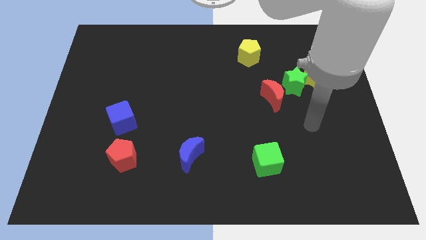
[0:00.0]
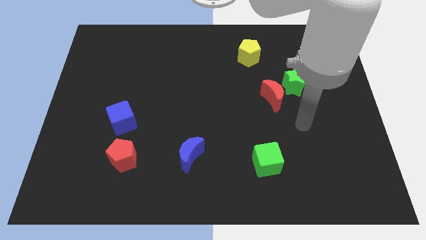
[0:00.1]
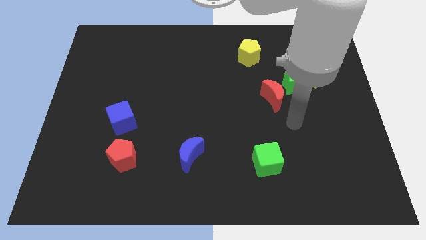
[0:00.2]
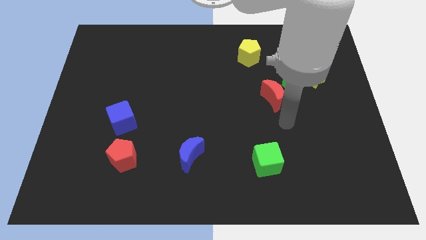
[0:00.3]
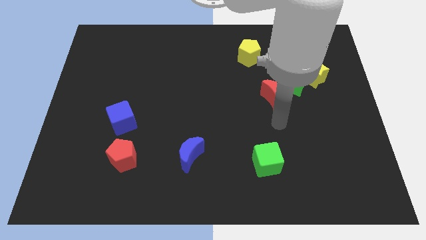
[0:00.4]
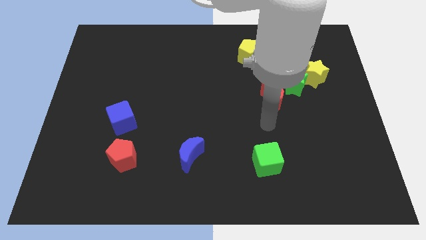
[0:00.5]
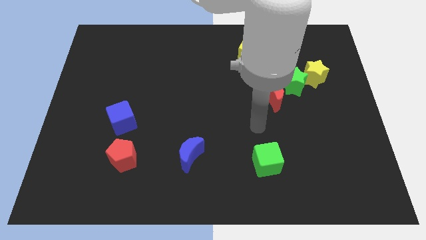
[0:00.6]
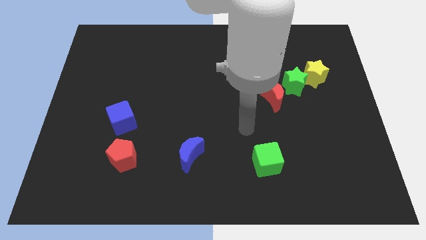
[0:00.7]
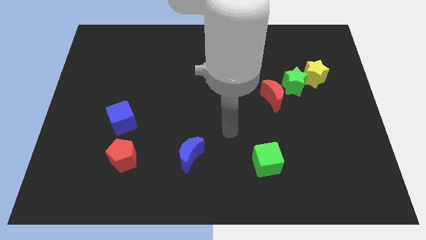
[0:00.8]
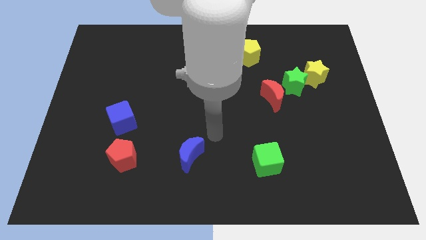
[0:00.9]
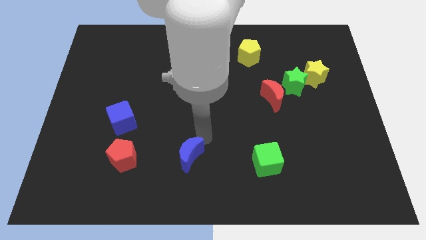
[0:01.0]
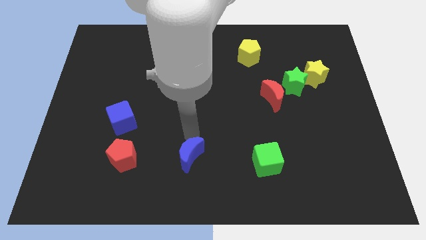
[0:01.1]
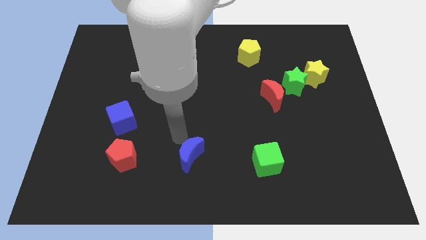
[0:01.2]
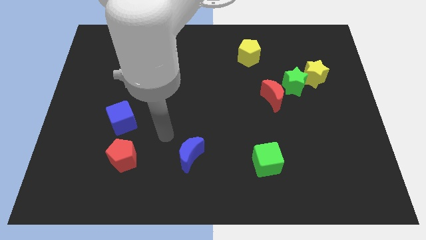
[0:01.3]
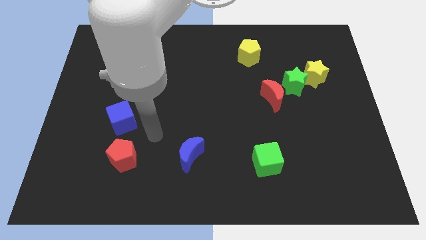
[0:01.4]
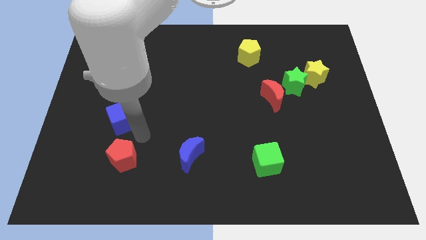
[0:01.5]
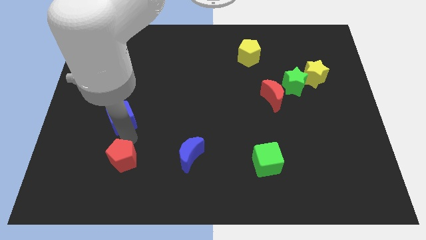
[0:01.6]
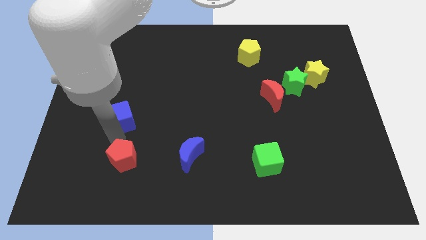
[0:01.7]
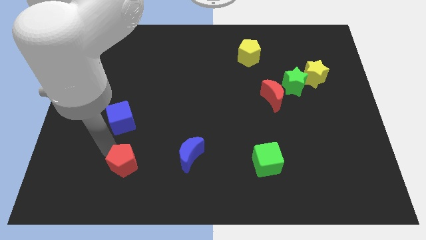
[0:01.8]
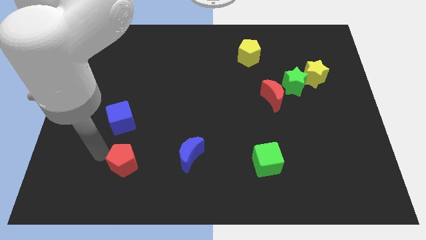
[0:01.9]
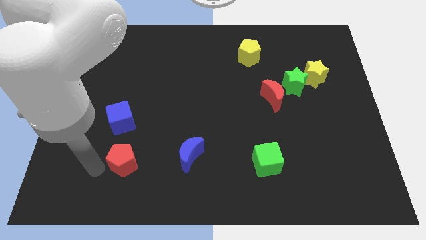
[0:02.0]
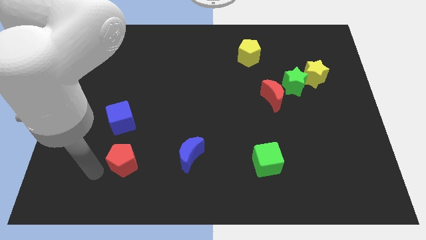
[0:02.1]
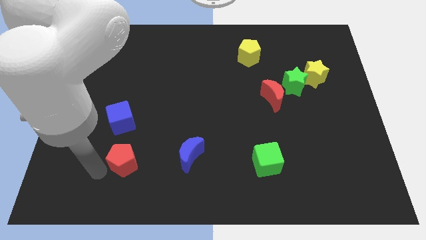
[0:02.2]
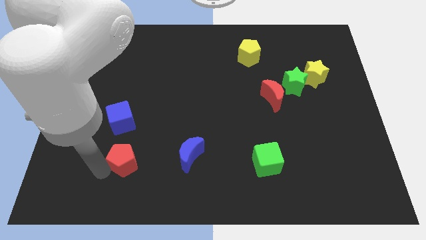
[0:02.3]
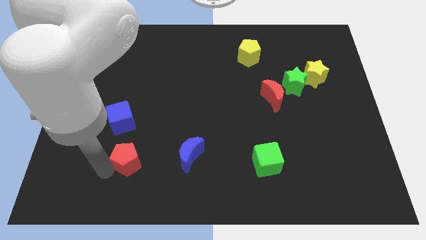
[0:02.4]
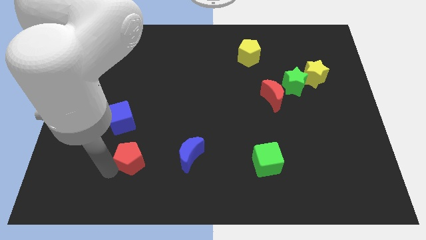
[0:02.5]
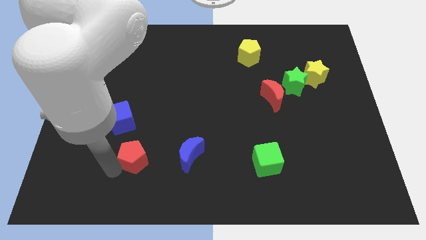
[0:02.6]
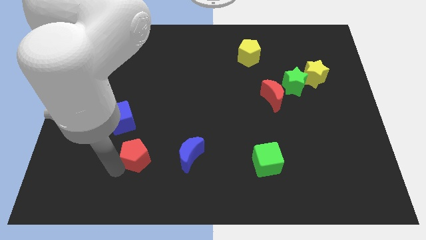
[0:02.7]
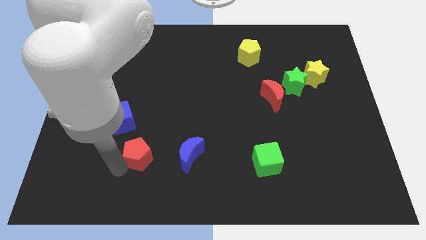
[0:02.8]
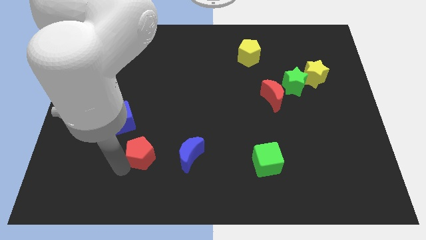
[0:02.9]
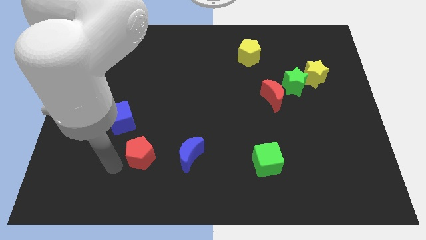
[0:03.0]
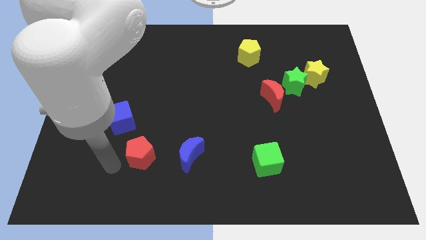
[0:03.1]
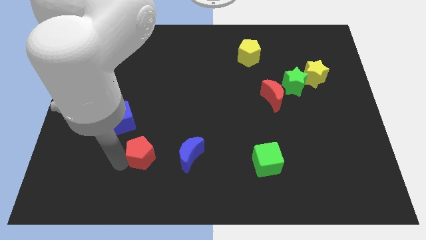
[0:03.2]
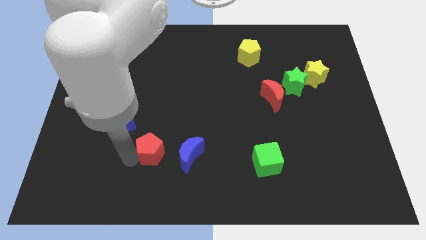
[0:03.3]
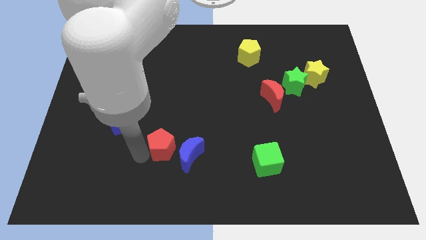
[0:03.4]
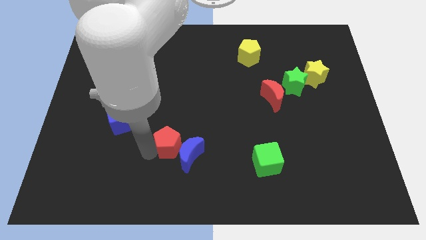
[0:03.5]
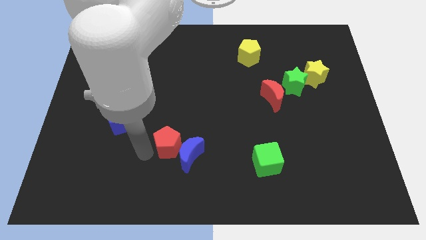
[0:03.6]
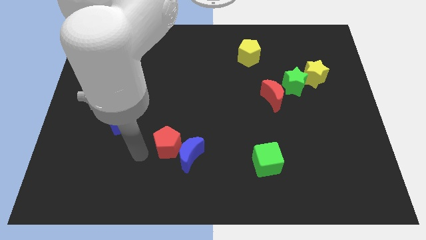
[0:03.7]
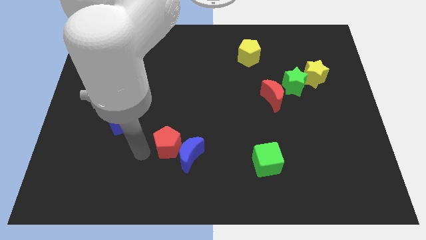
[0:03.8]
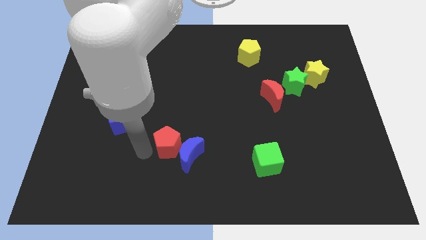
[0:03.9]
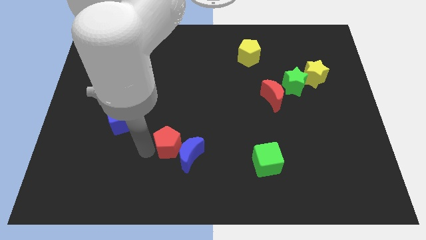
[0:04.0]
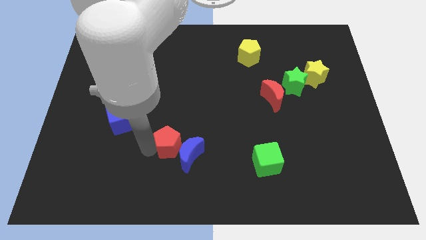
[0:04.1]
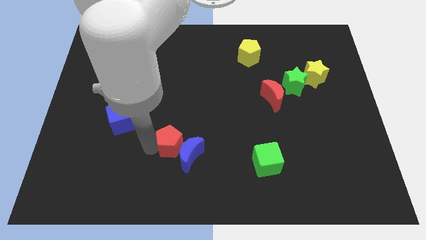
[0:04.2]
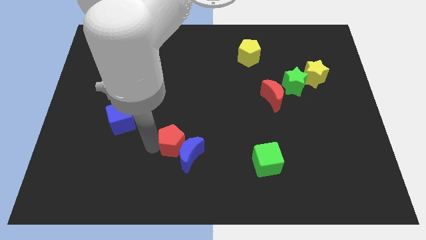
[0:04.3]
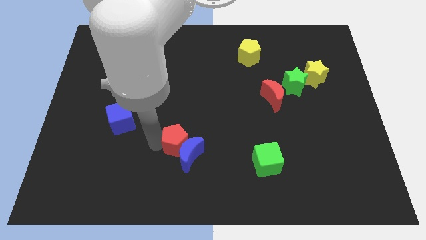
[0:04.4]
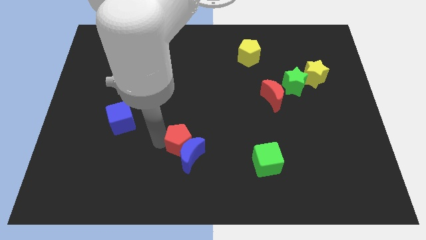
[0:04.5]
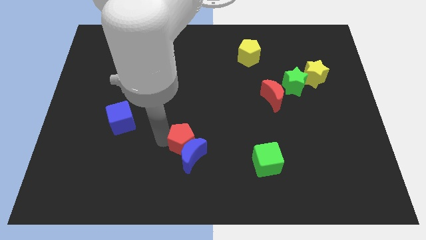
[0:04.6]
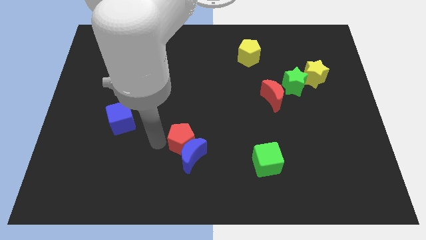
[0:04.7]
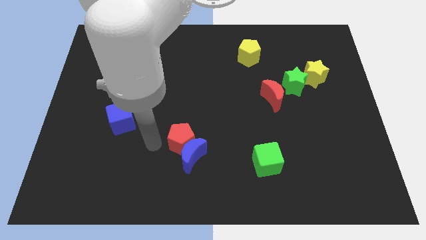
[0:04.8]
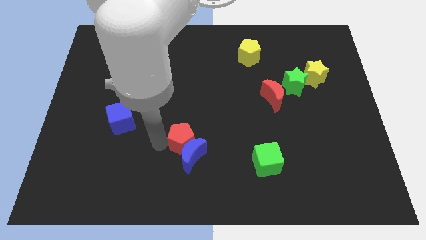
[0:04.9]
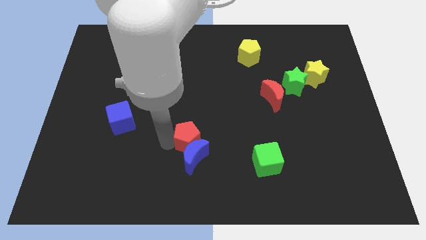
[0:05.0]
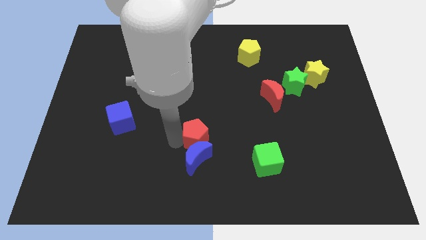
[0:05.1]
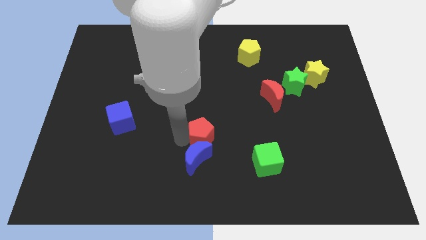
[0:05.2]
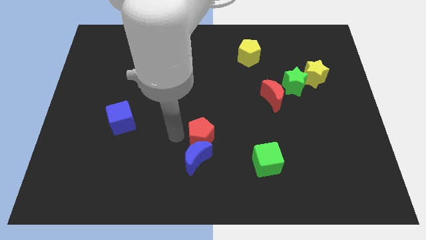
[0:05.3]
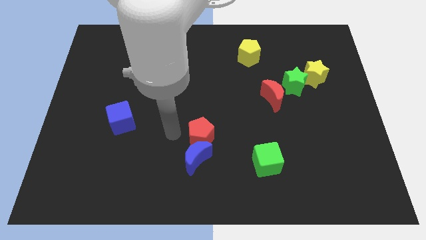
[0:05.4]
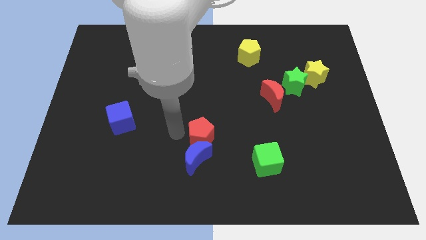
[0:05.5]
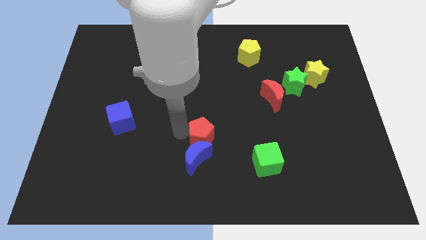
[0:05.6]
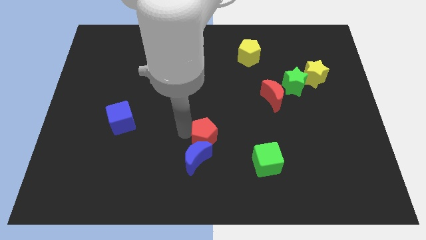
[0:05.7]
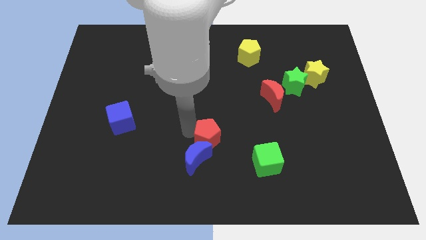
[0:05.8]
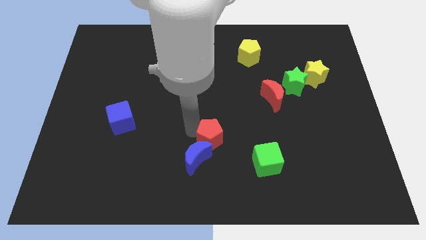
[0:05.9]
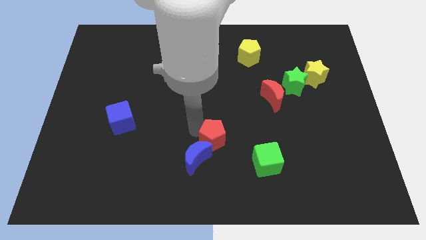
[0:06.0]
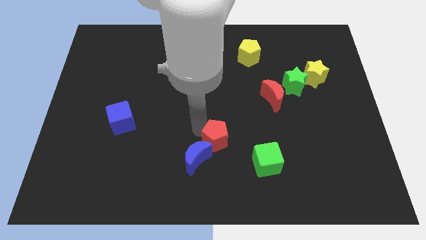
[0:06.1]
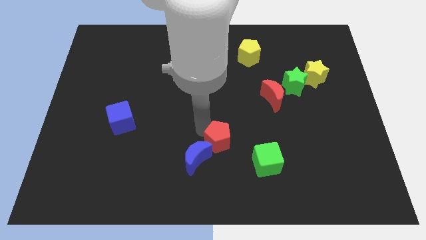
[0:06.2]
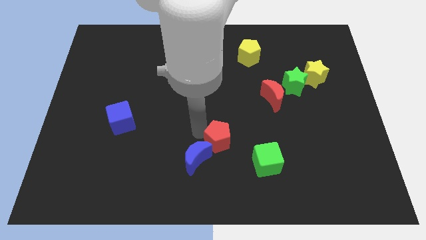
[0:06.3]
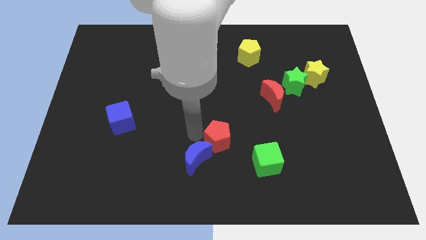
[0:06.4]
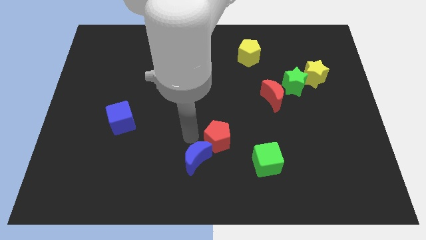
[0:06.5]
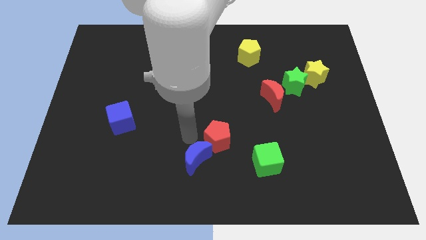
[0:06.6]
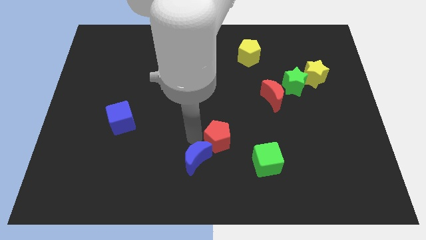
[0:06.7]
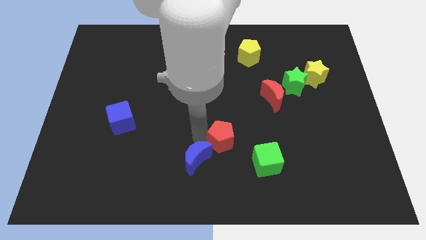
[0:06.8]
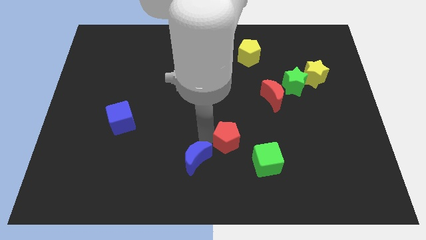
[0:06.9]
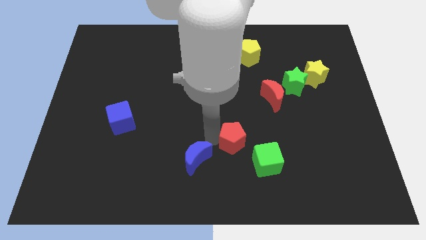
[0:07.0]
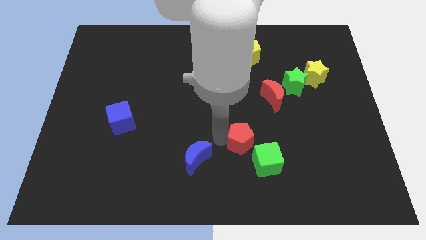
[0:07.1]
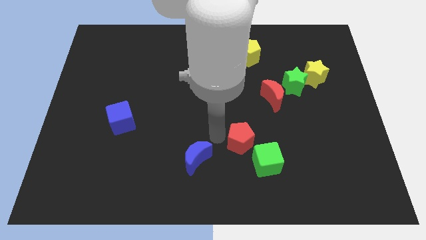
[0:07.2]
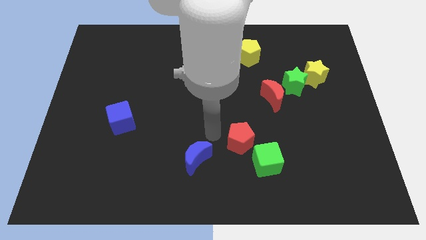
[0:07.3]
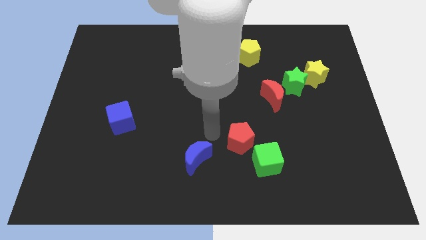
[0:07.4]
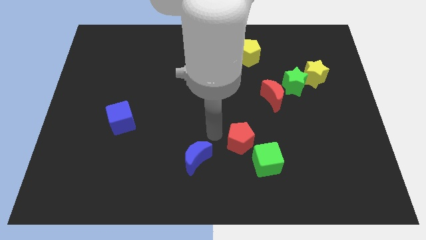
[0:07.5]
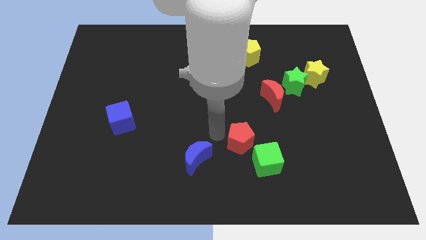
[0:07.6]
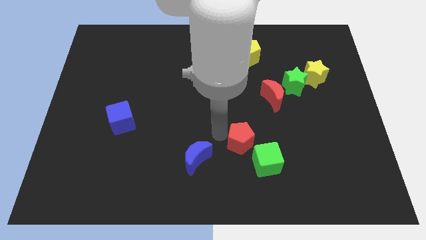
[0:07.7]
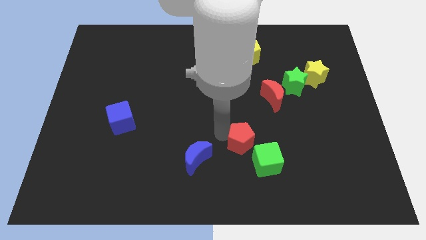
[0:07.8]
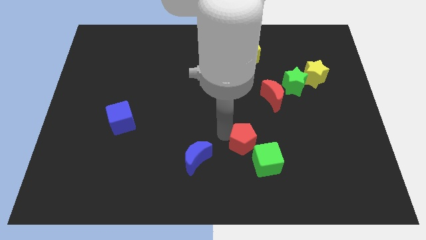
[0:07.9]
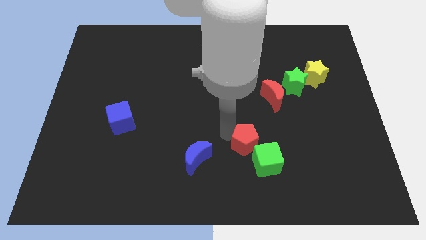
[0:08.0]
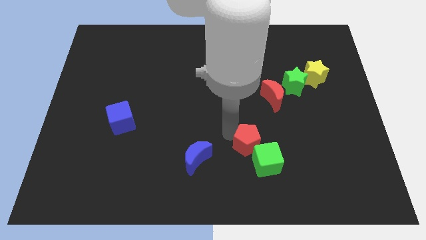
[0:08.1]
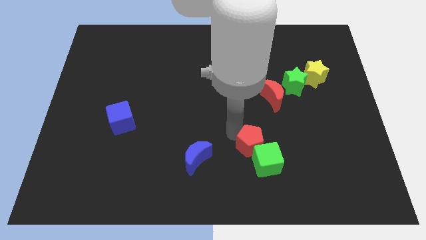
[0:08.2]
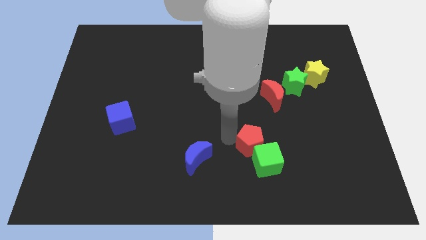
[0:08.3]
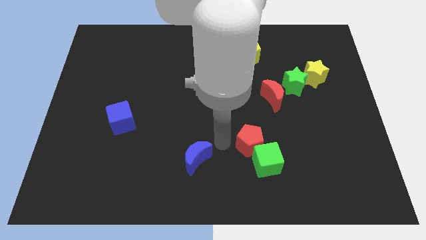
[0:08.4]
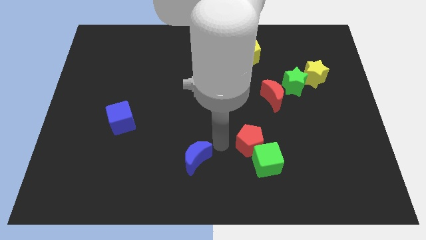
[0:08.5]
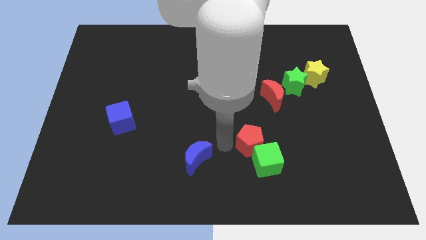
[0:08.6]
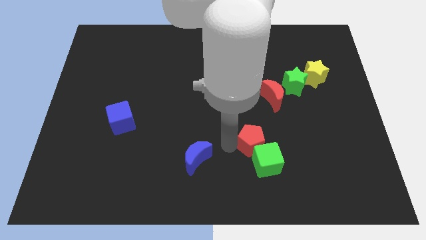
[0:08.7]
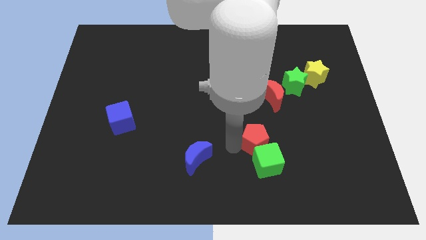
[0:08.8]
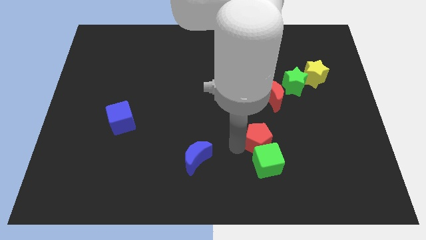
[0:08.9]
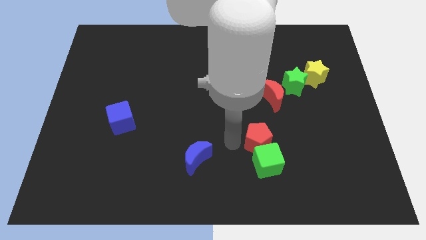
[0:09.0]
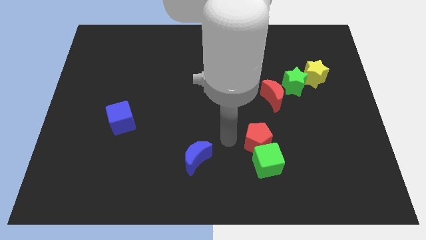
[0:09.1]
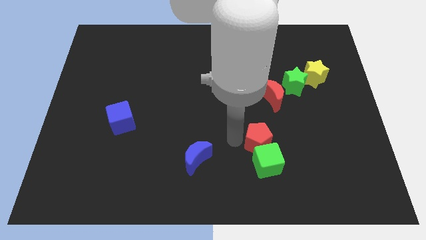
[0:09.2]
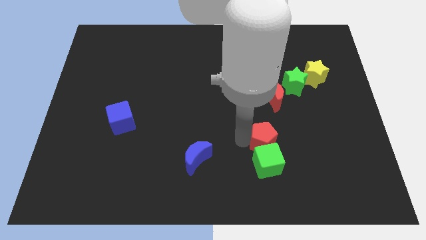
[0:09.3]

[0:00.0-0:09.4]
slide the red pentagon diagonally up and to the right of the green cube
